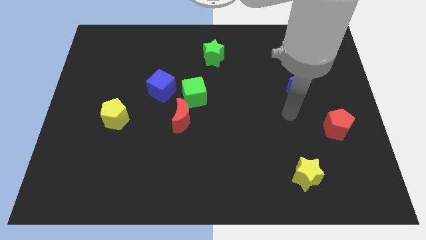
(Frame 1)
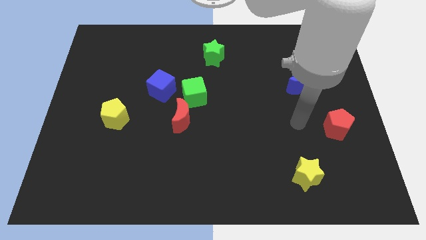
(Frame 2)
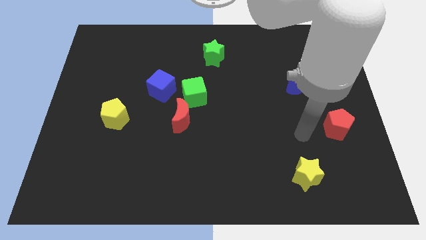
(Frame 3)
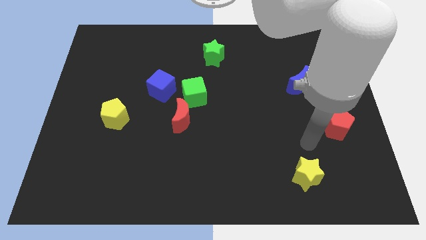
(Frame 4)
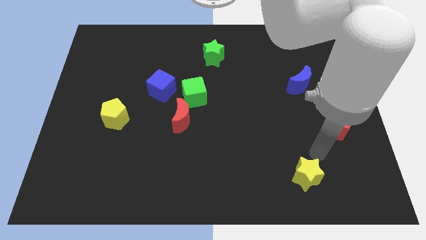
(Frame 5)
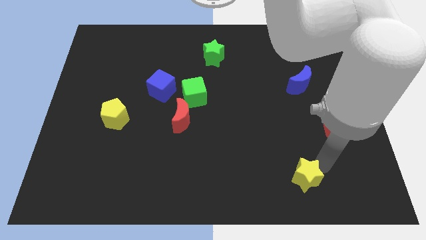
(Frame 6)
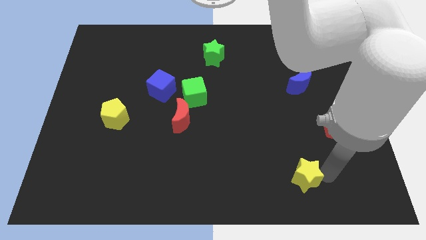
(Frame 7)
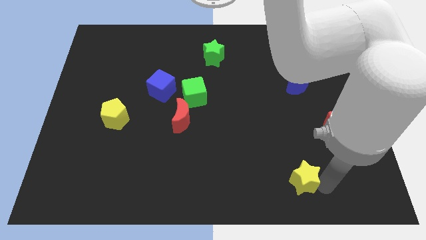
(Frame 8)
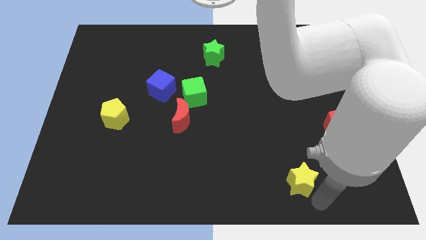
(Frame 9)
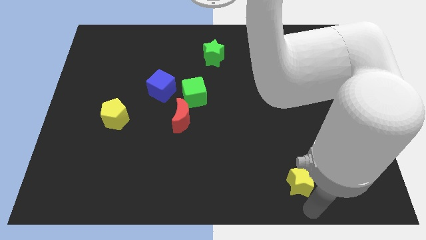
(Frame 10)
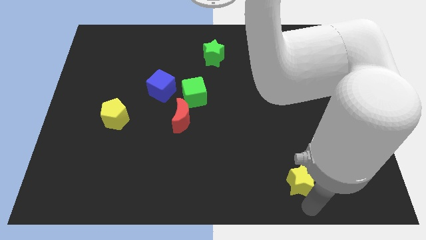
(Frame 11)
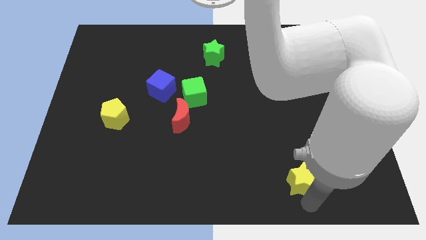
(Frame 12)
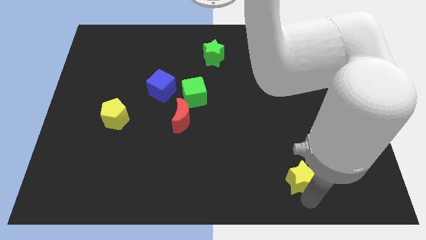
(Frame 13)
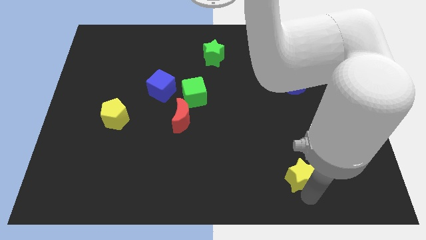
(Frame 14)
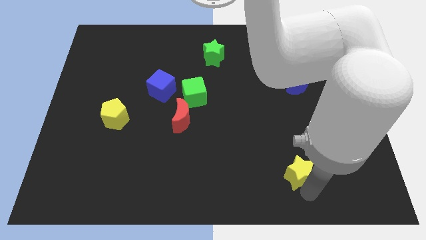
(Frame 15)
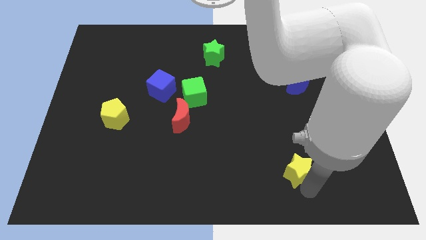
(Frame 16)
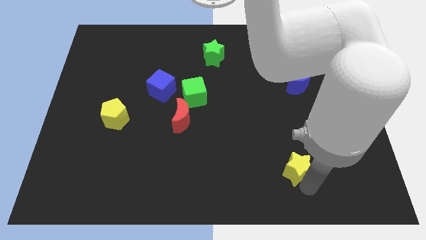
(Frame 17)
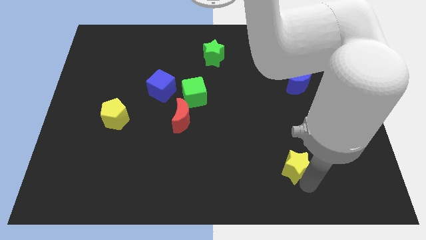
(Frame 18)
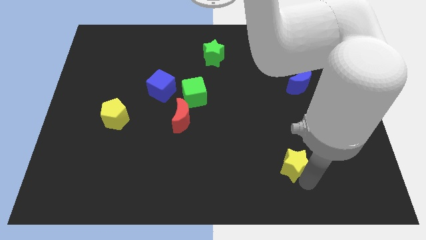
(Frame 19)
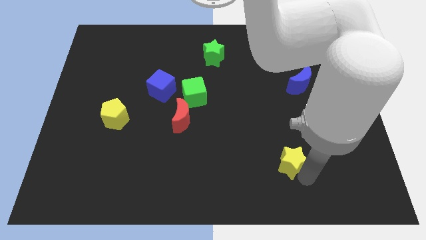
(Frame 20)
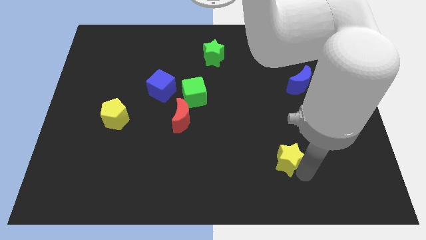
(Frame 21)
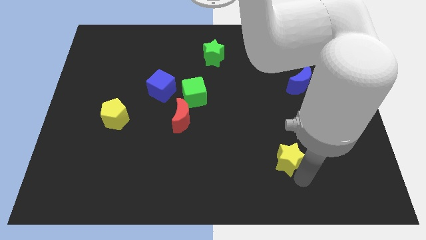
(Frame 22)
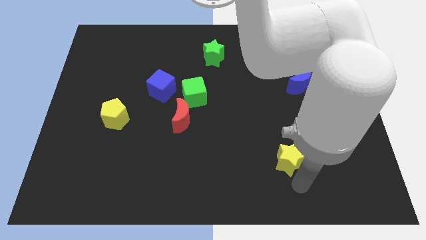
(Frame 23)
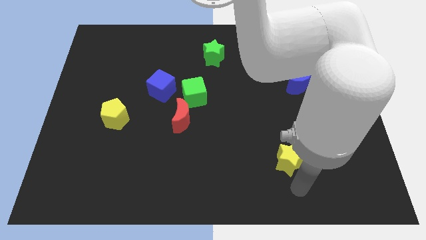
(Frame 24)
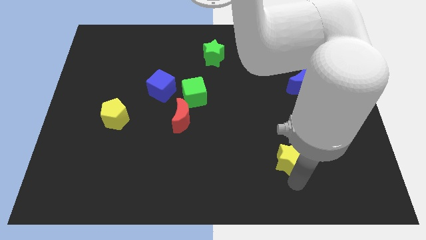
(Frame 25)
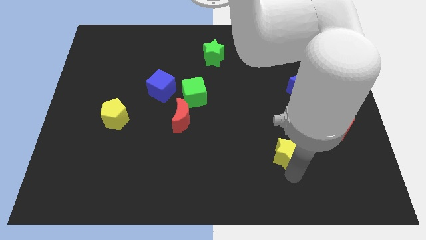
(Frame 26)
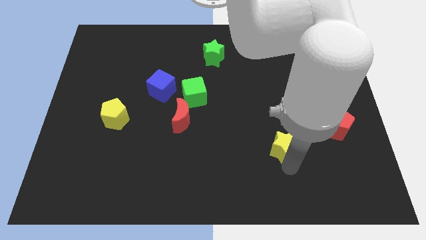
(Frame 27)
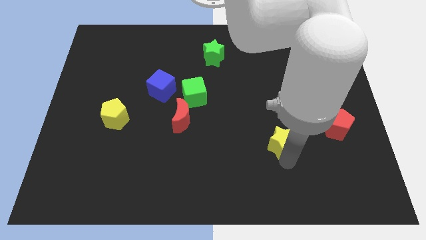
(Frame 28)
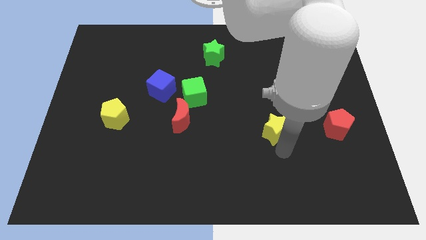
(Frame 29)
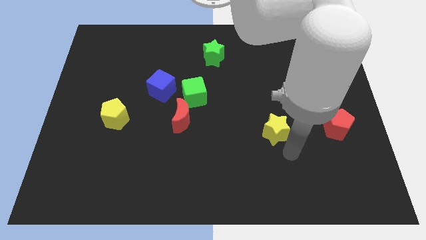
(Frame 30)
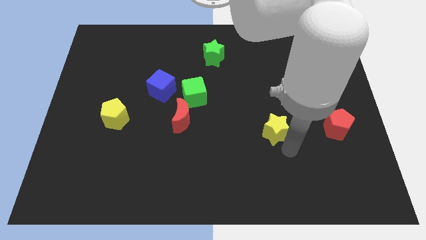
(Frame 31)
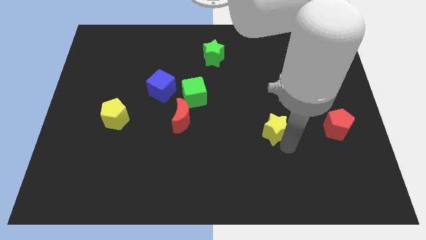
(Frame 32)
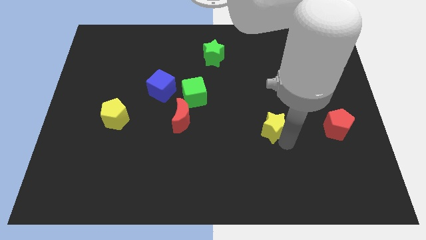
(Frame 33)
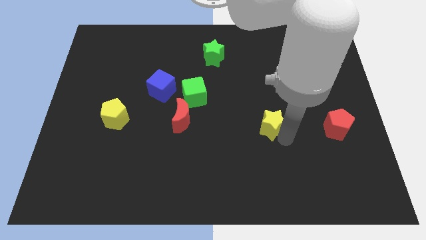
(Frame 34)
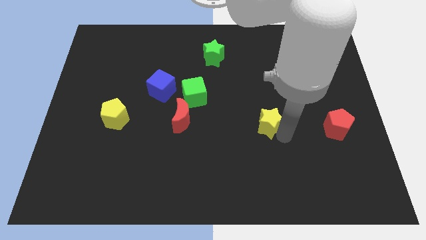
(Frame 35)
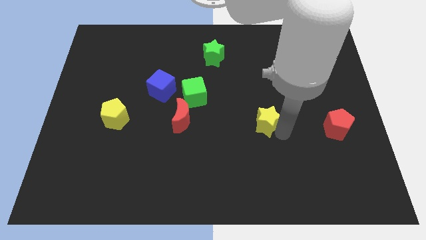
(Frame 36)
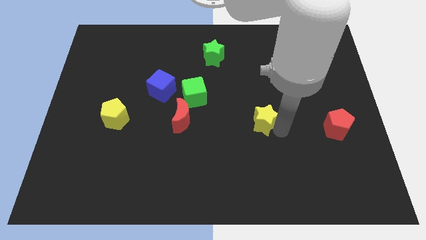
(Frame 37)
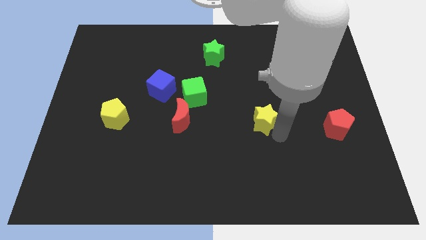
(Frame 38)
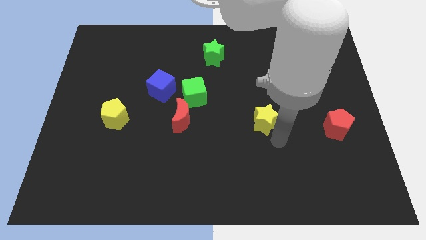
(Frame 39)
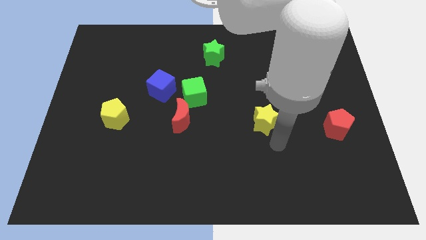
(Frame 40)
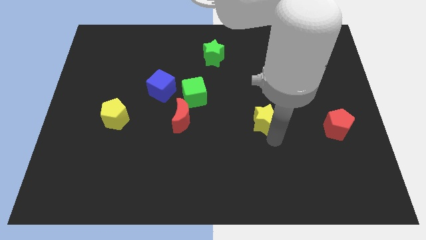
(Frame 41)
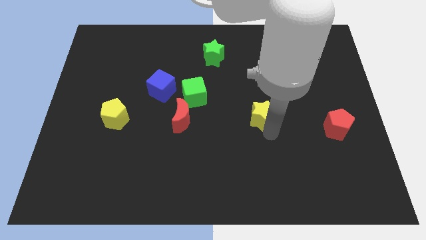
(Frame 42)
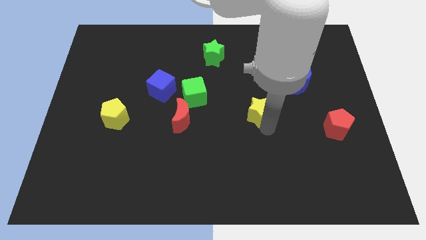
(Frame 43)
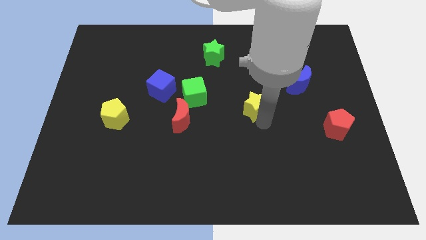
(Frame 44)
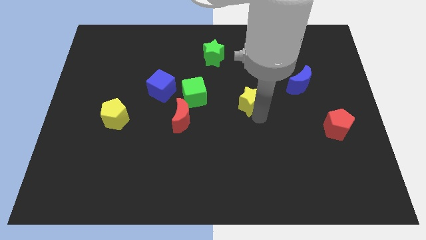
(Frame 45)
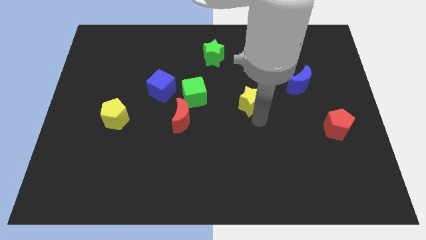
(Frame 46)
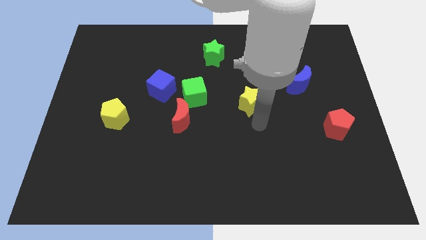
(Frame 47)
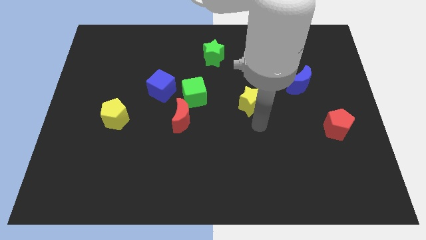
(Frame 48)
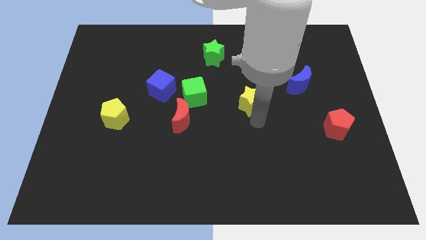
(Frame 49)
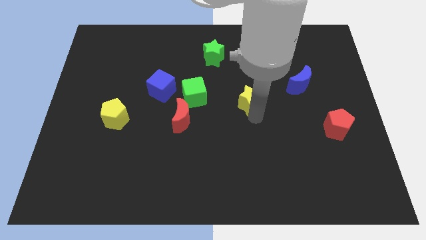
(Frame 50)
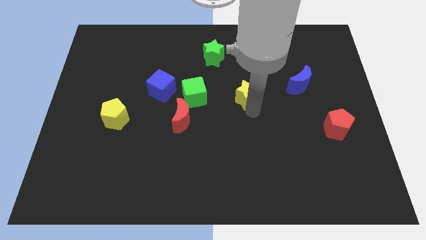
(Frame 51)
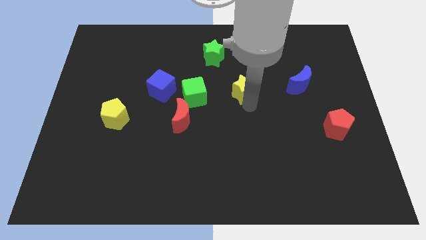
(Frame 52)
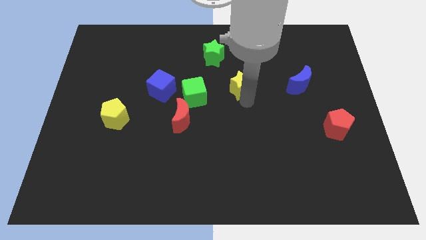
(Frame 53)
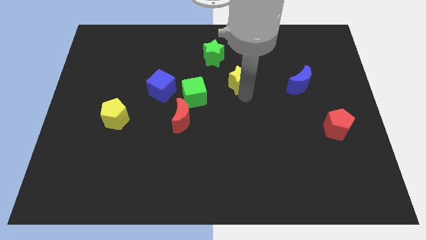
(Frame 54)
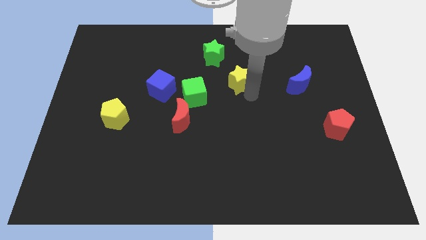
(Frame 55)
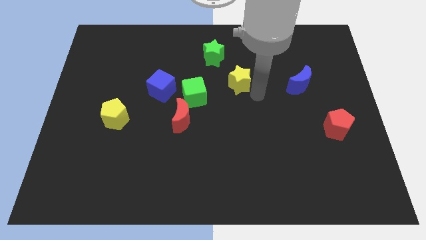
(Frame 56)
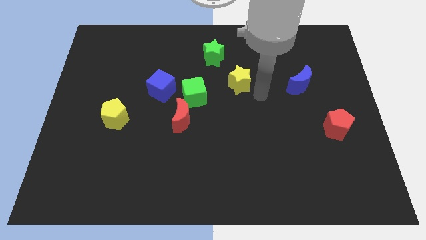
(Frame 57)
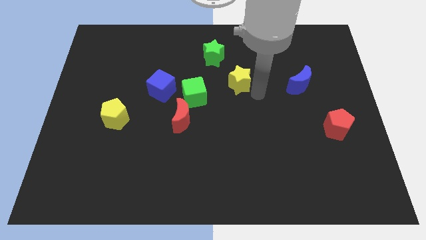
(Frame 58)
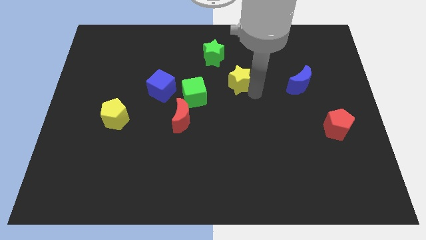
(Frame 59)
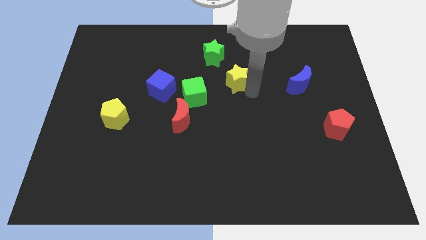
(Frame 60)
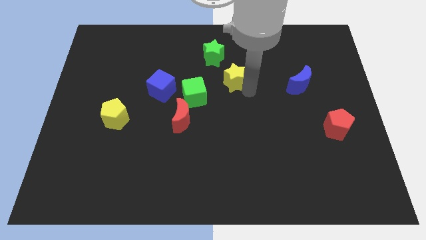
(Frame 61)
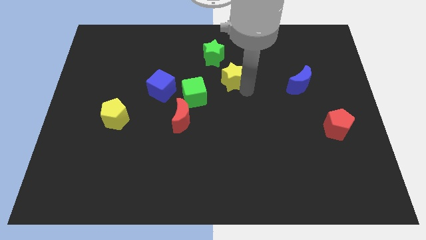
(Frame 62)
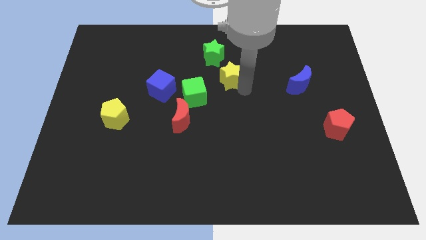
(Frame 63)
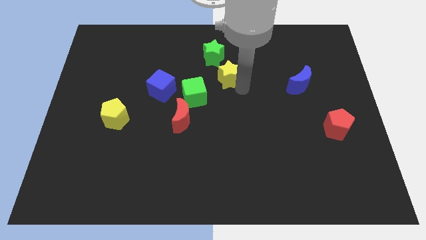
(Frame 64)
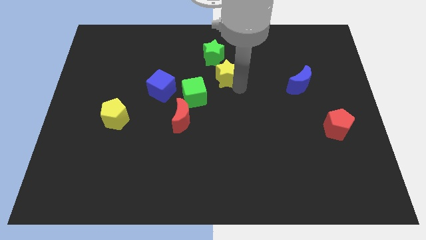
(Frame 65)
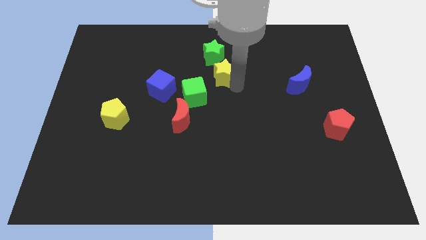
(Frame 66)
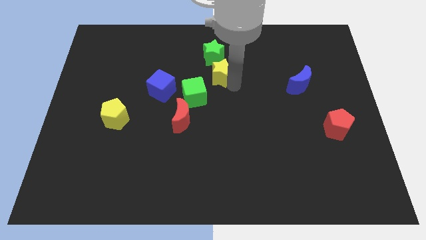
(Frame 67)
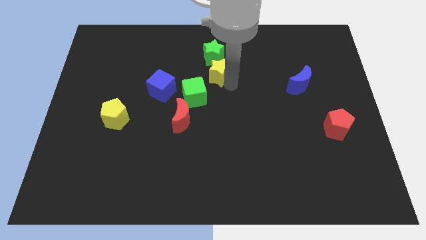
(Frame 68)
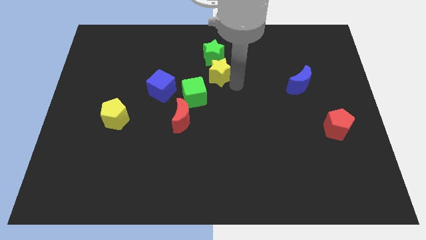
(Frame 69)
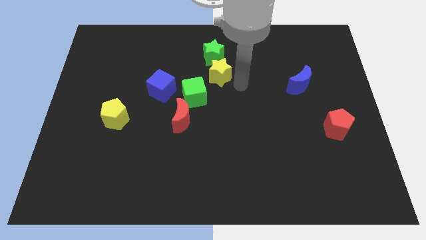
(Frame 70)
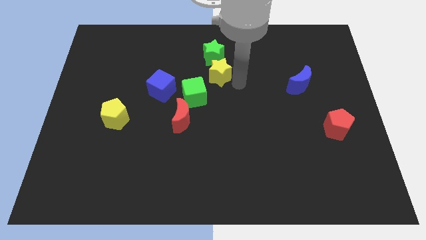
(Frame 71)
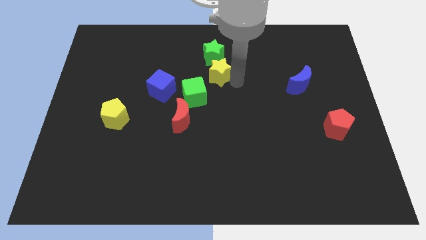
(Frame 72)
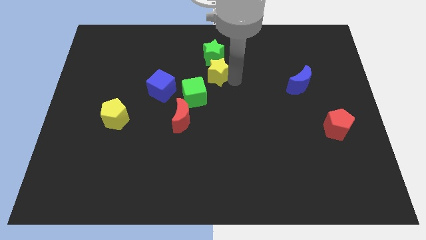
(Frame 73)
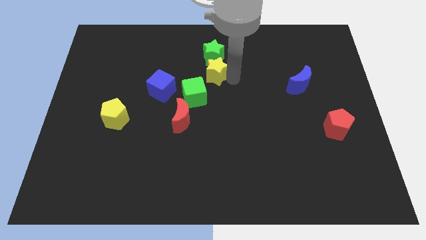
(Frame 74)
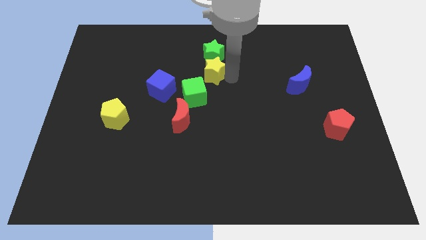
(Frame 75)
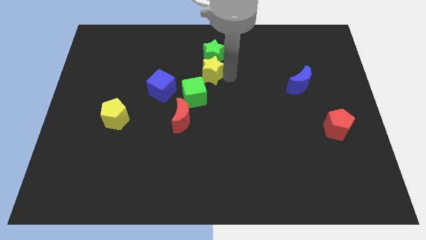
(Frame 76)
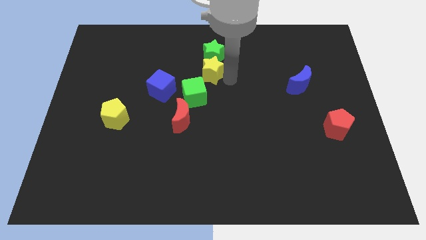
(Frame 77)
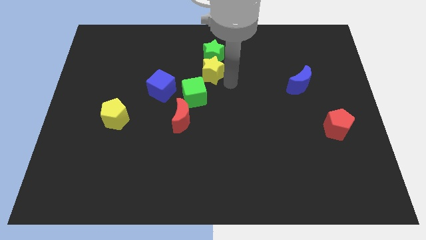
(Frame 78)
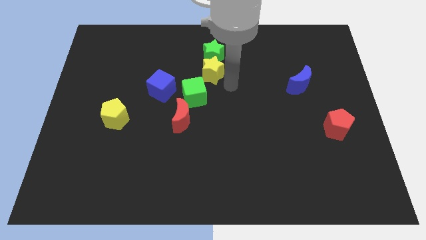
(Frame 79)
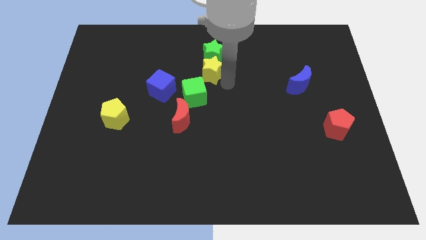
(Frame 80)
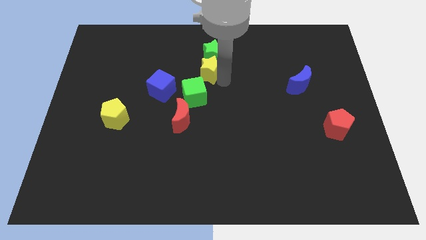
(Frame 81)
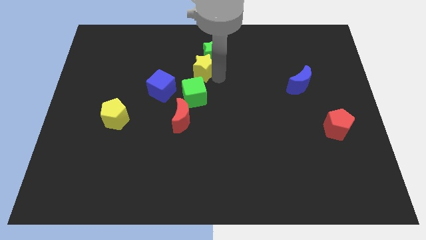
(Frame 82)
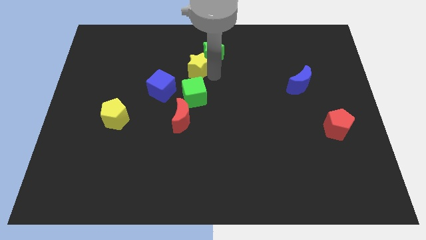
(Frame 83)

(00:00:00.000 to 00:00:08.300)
push the yellow star to the left of the green star
